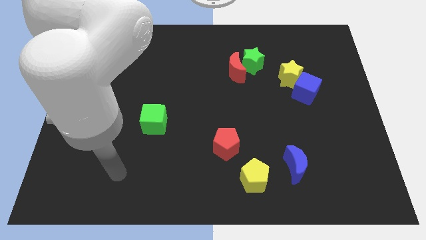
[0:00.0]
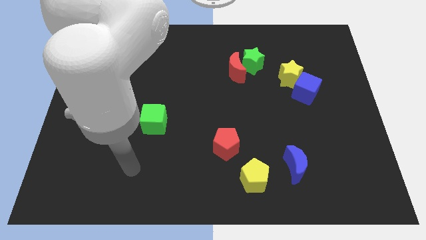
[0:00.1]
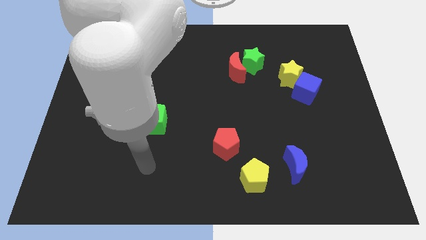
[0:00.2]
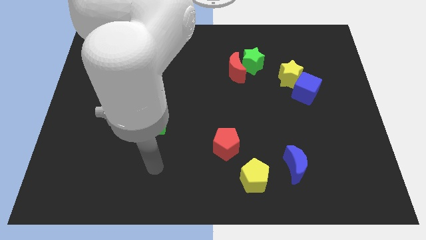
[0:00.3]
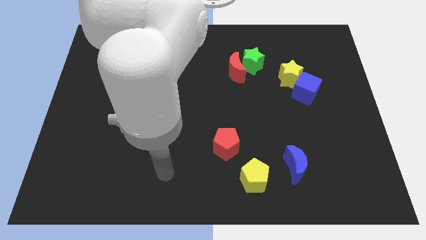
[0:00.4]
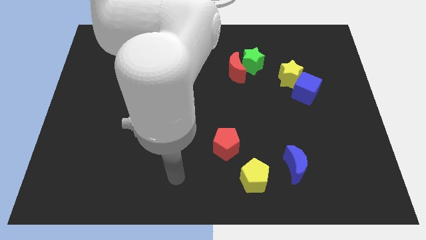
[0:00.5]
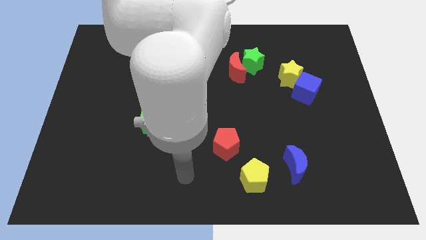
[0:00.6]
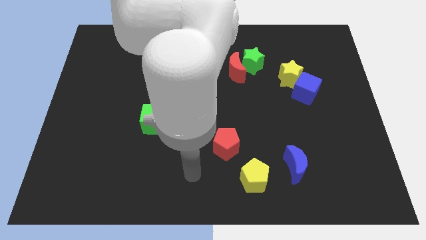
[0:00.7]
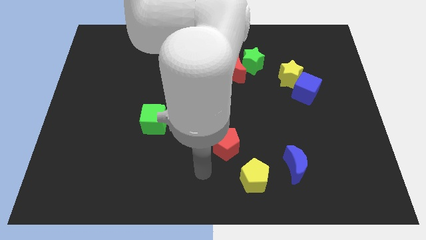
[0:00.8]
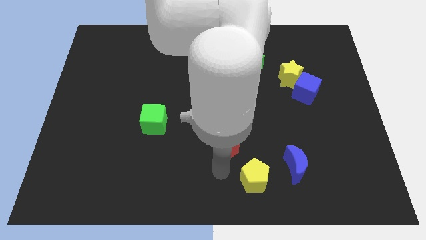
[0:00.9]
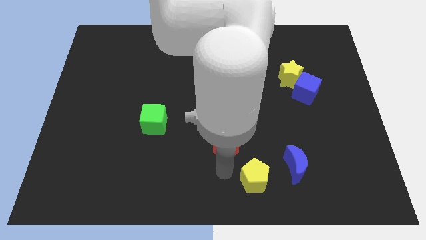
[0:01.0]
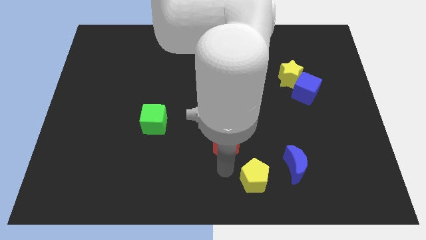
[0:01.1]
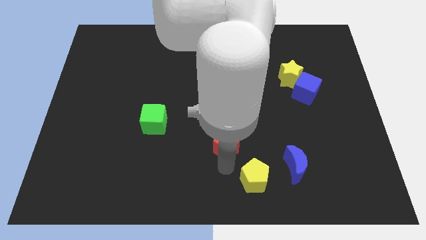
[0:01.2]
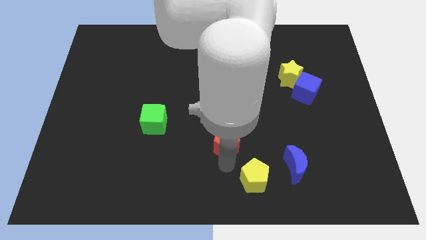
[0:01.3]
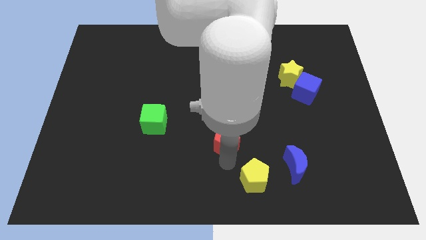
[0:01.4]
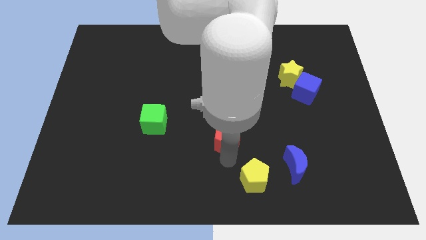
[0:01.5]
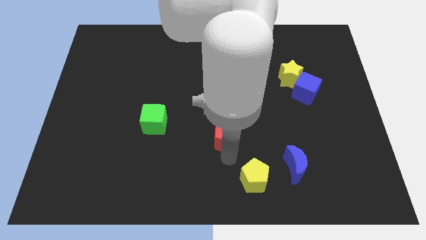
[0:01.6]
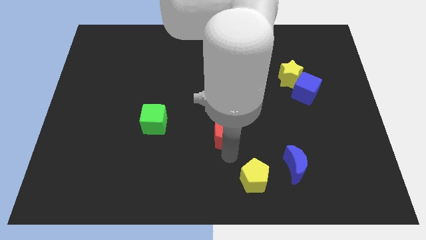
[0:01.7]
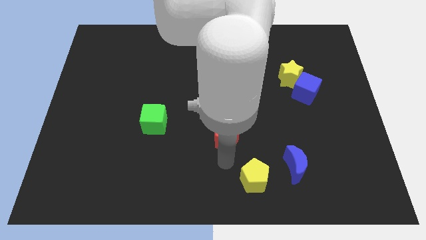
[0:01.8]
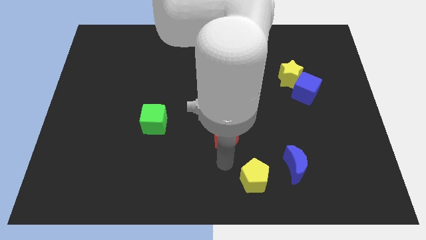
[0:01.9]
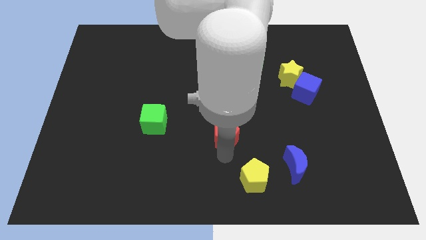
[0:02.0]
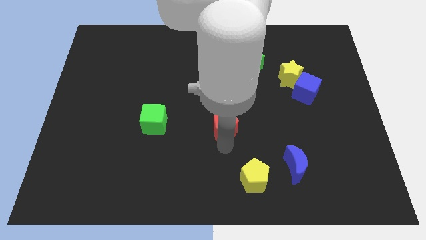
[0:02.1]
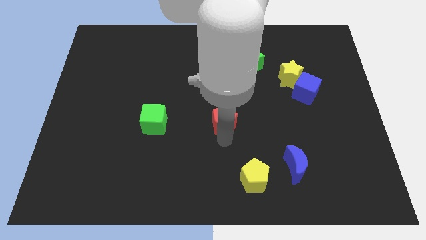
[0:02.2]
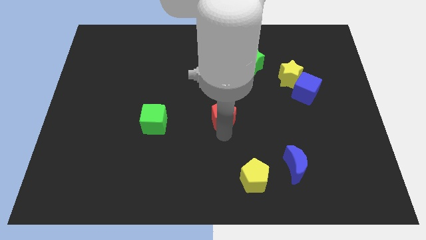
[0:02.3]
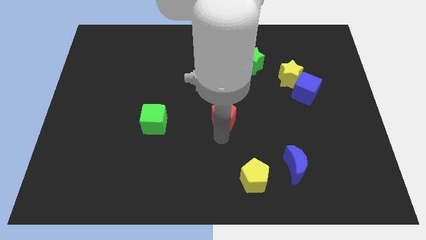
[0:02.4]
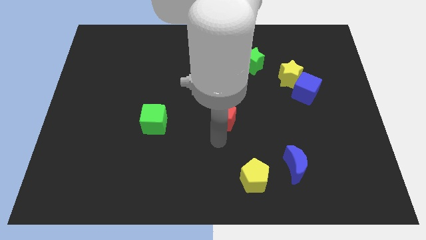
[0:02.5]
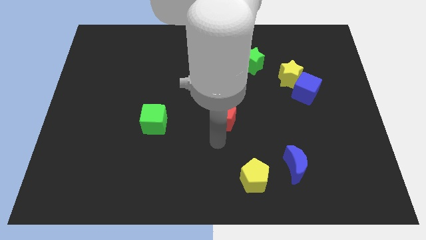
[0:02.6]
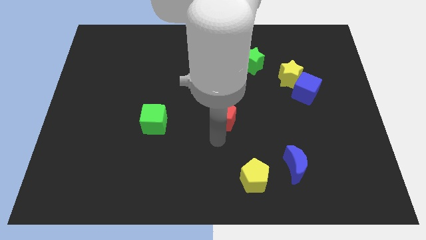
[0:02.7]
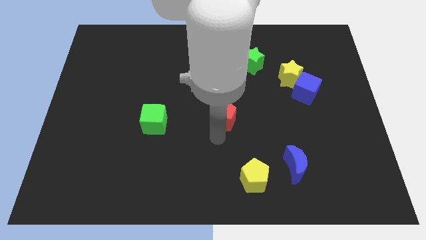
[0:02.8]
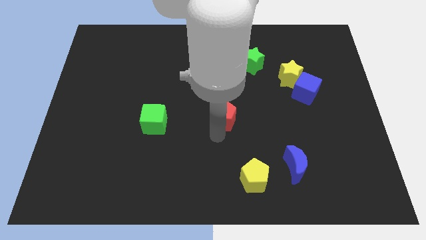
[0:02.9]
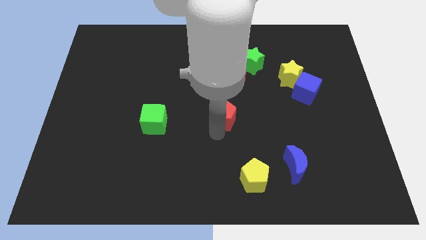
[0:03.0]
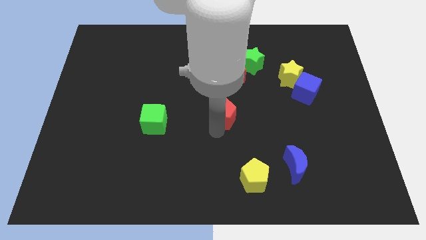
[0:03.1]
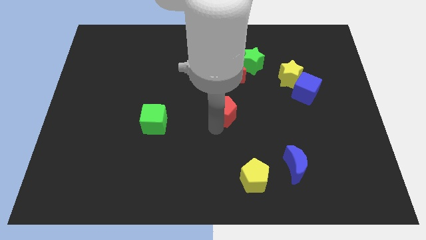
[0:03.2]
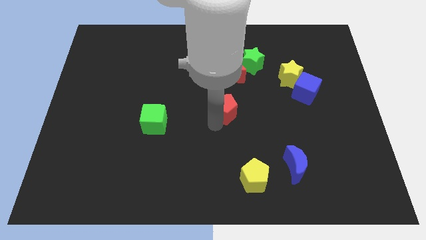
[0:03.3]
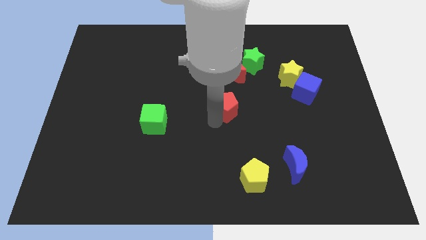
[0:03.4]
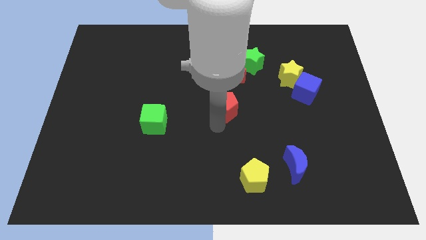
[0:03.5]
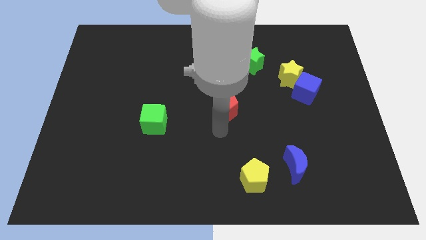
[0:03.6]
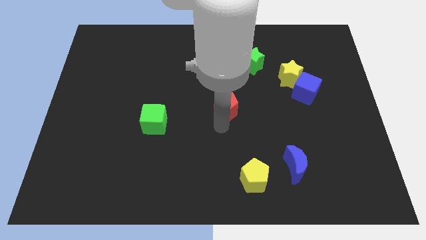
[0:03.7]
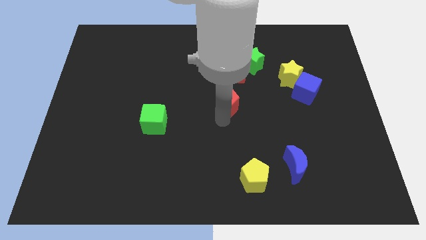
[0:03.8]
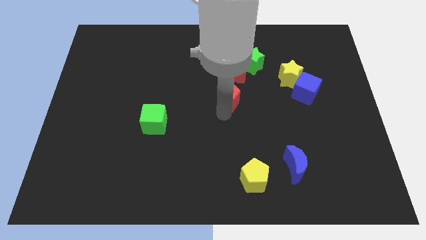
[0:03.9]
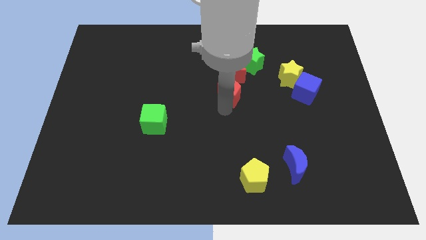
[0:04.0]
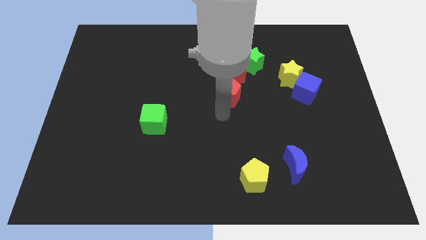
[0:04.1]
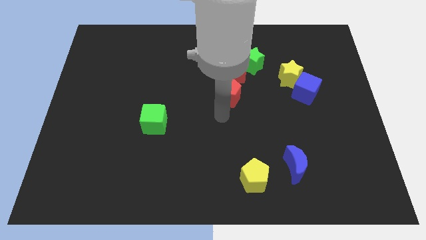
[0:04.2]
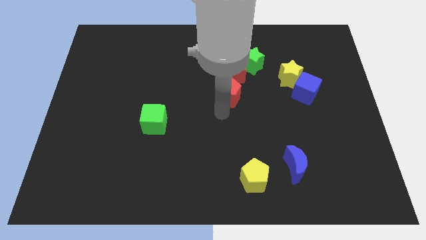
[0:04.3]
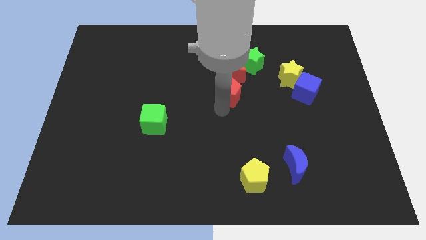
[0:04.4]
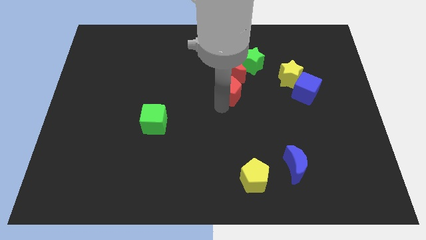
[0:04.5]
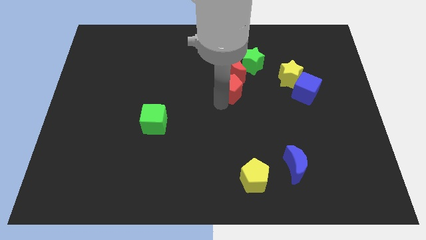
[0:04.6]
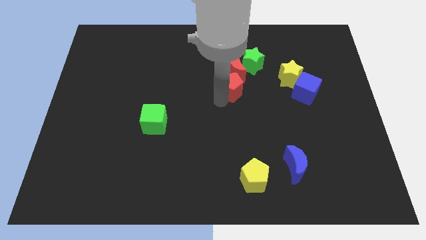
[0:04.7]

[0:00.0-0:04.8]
slide the red pentagon close to the red moon

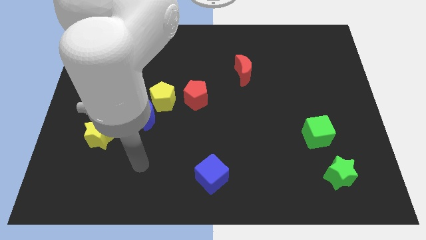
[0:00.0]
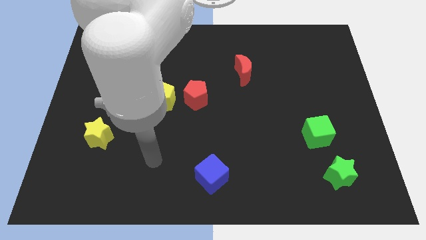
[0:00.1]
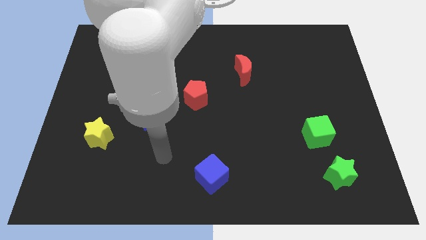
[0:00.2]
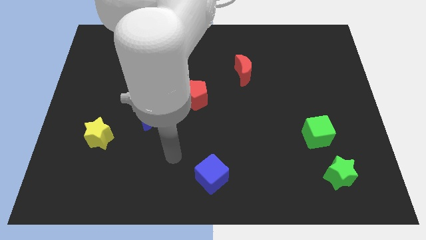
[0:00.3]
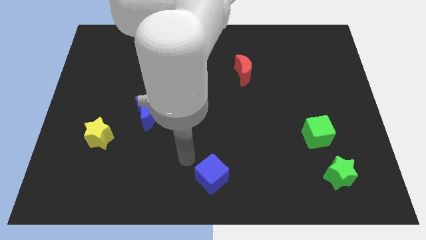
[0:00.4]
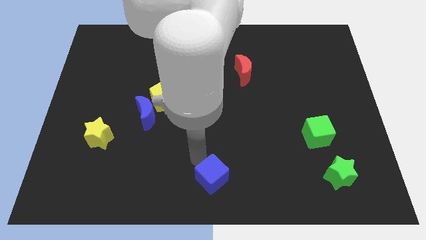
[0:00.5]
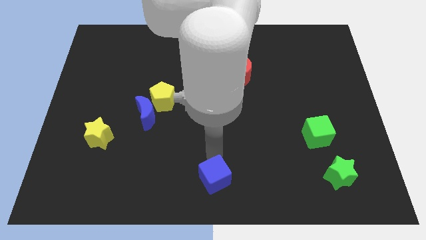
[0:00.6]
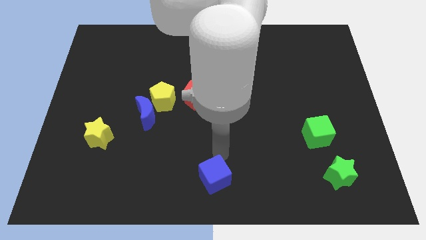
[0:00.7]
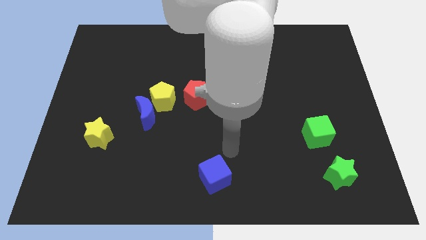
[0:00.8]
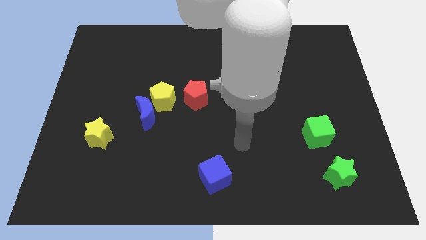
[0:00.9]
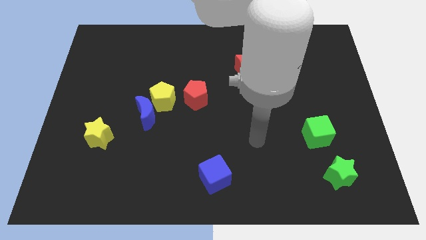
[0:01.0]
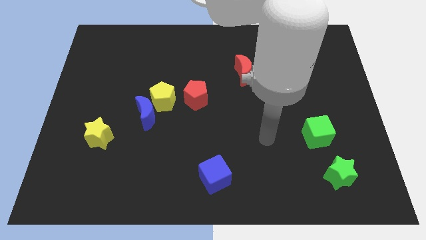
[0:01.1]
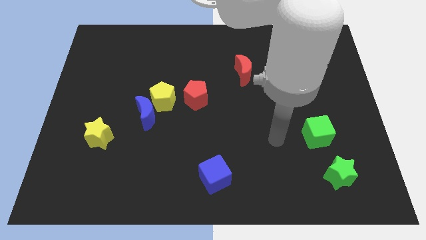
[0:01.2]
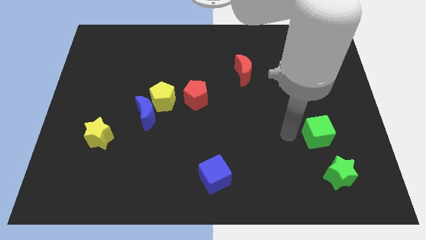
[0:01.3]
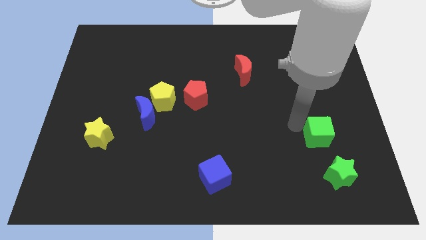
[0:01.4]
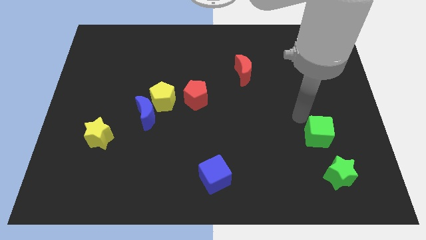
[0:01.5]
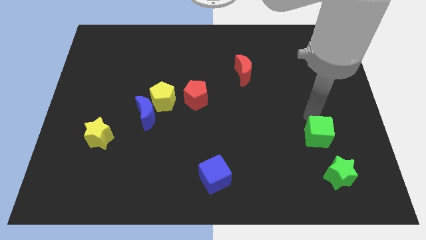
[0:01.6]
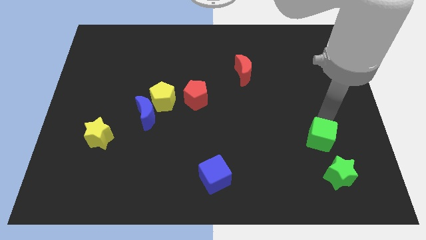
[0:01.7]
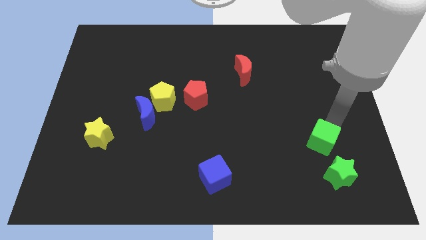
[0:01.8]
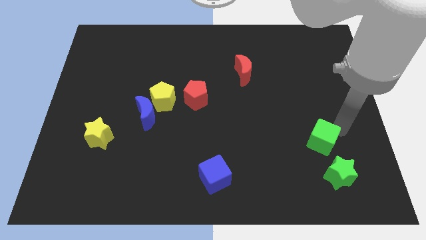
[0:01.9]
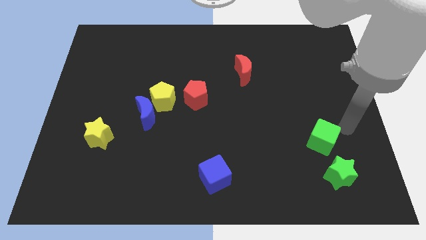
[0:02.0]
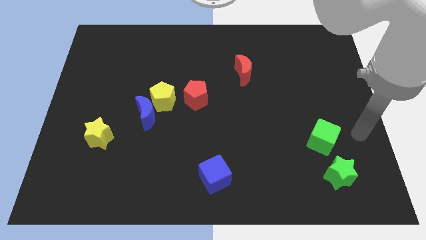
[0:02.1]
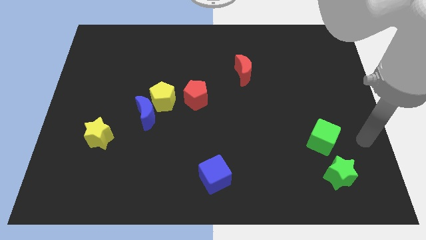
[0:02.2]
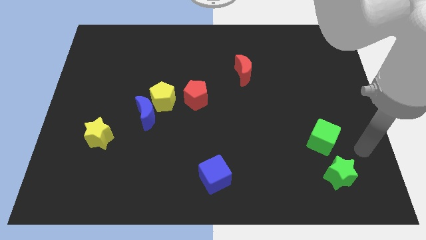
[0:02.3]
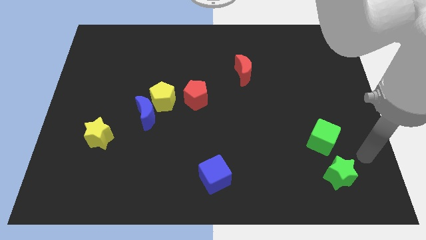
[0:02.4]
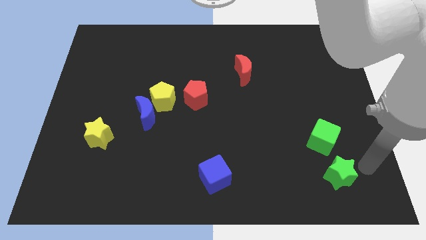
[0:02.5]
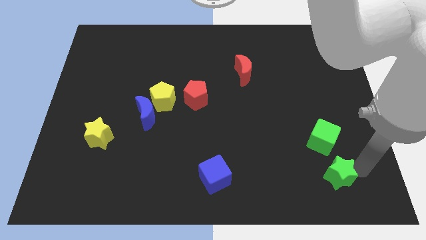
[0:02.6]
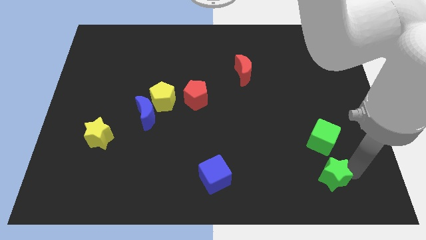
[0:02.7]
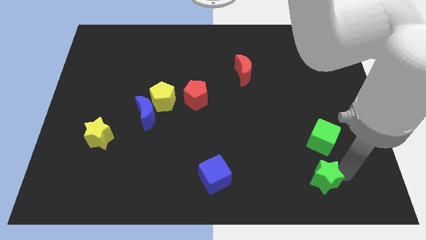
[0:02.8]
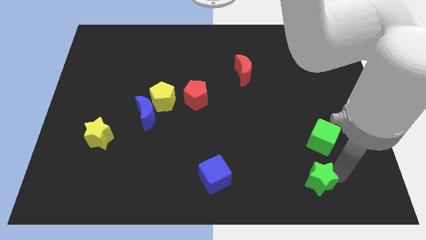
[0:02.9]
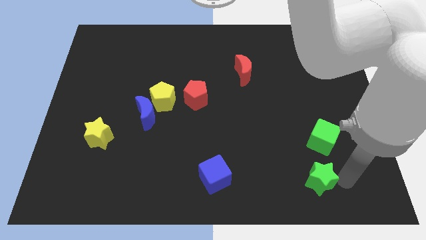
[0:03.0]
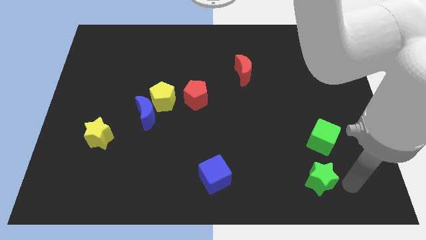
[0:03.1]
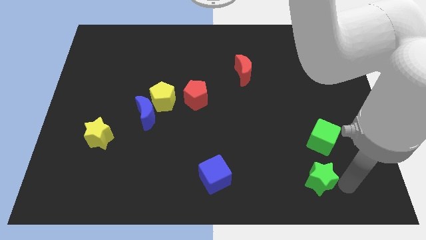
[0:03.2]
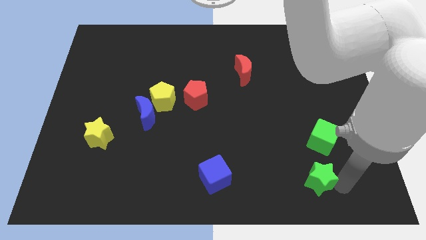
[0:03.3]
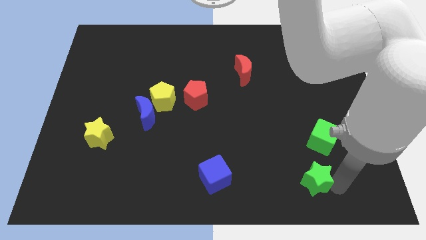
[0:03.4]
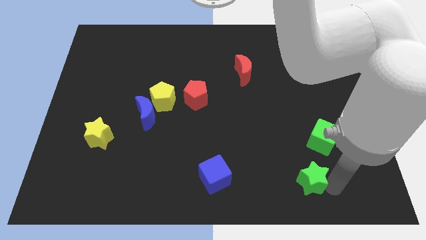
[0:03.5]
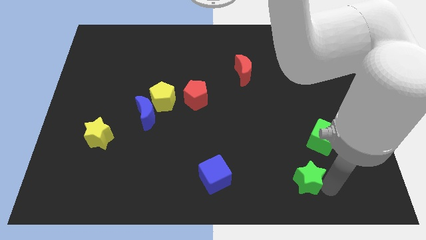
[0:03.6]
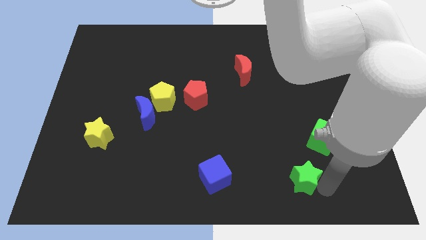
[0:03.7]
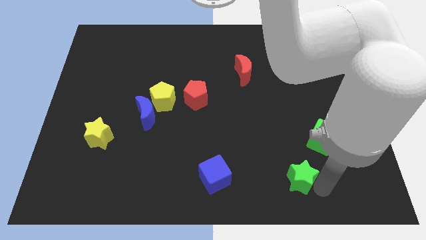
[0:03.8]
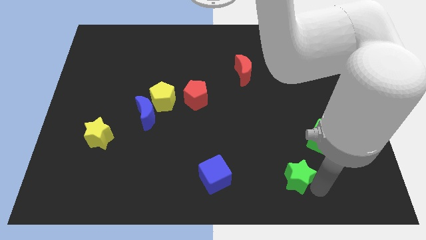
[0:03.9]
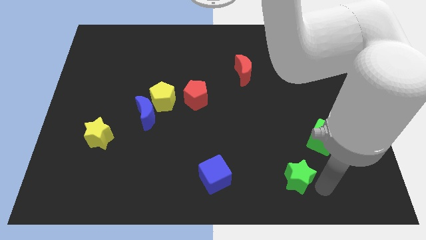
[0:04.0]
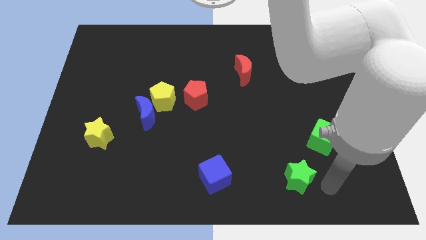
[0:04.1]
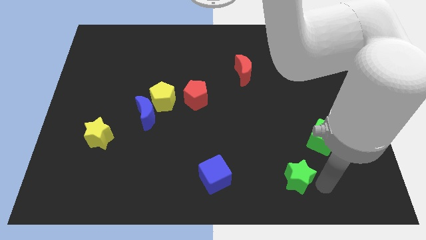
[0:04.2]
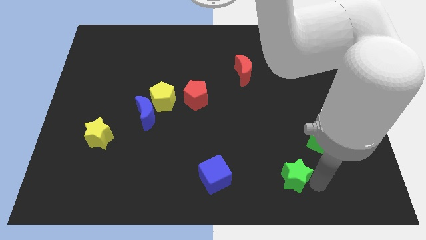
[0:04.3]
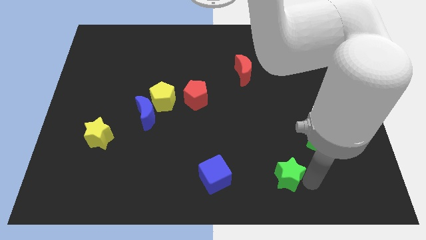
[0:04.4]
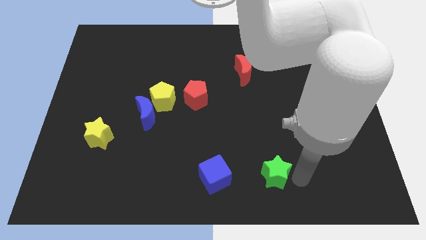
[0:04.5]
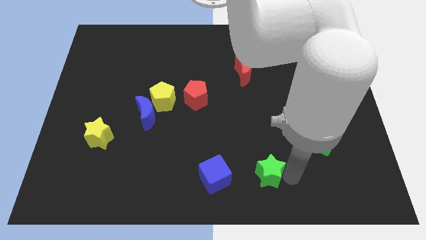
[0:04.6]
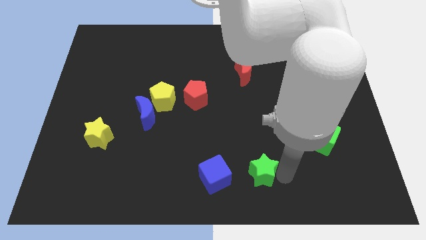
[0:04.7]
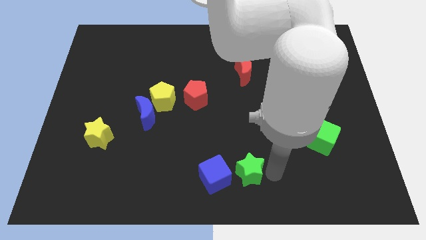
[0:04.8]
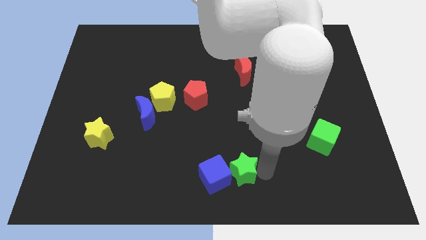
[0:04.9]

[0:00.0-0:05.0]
slide the green star next to the blue cube
